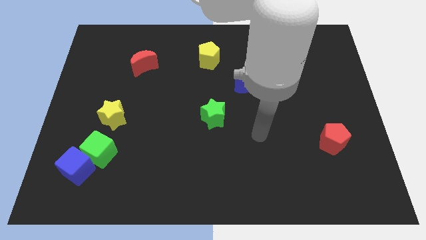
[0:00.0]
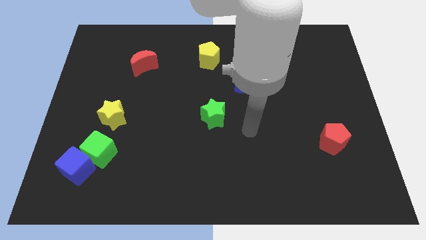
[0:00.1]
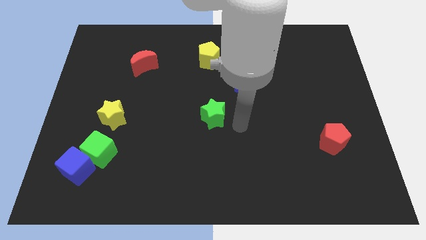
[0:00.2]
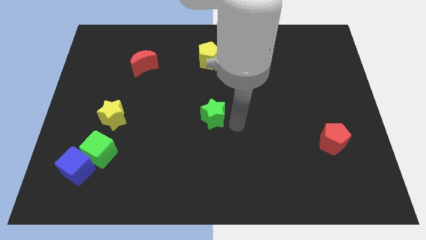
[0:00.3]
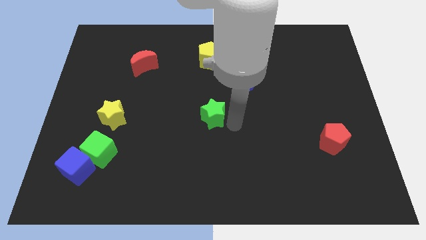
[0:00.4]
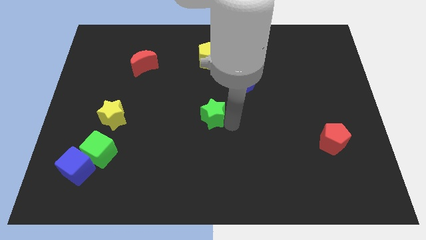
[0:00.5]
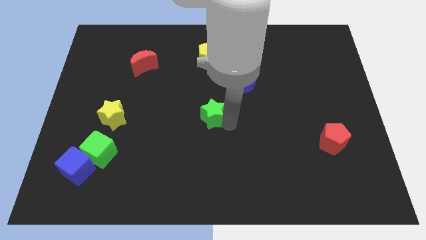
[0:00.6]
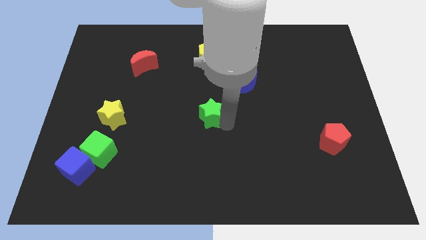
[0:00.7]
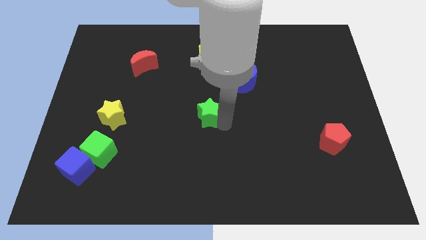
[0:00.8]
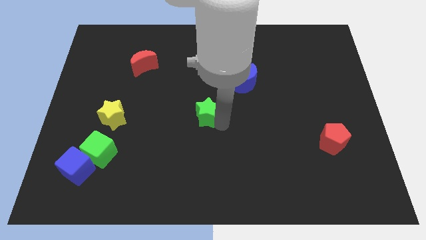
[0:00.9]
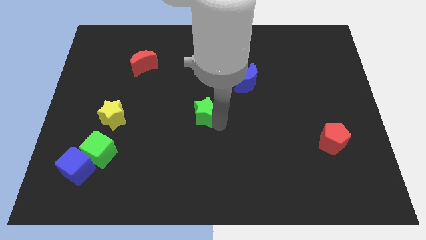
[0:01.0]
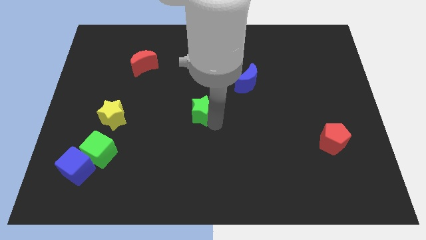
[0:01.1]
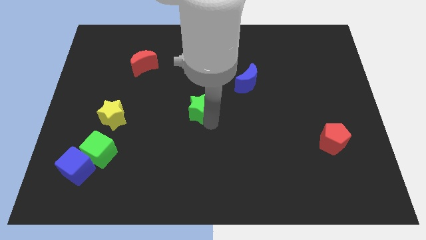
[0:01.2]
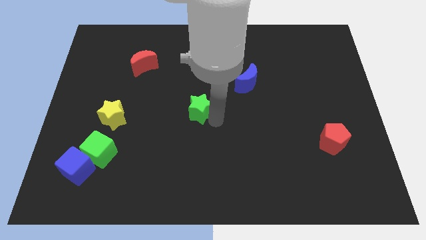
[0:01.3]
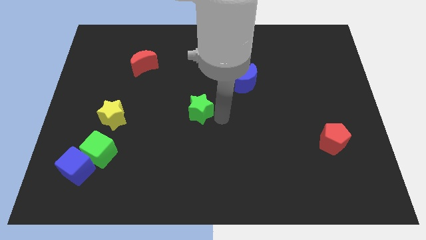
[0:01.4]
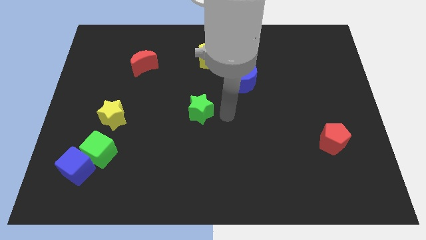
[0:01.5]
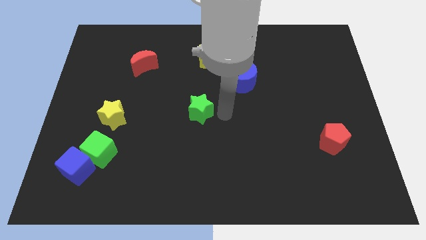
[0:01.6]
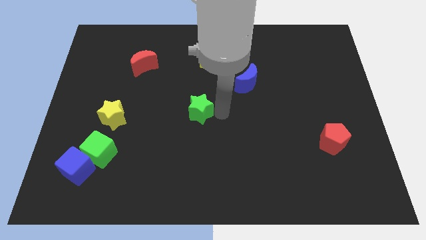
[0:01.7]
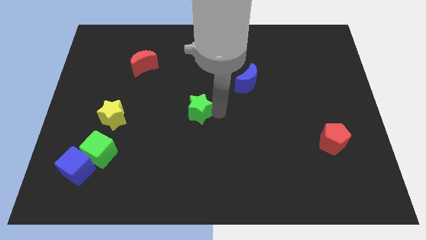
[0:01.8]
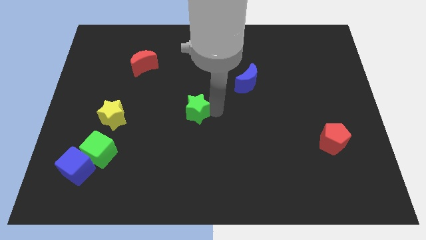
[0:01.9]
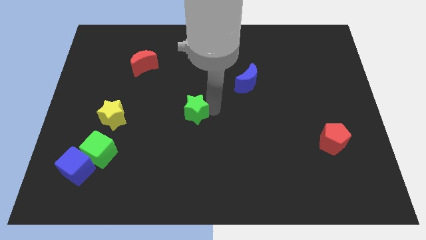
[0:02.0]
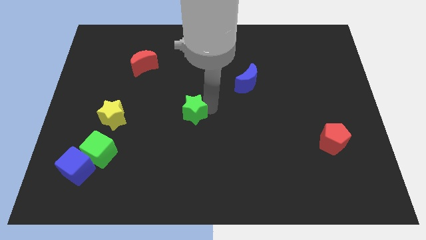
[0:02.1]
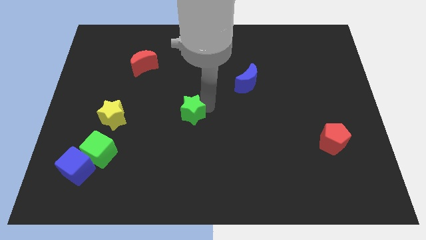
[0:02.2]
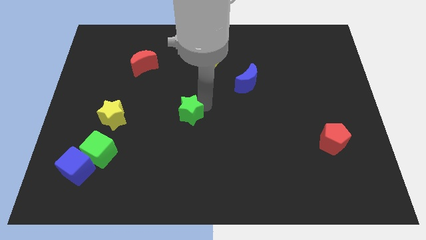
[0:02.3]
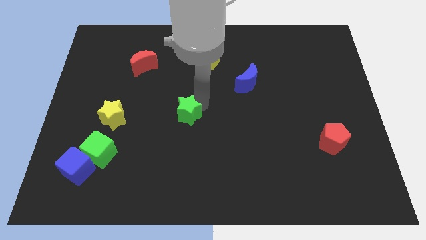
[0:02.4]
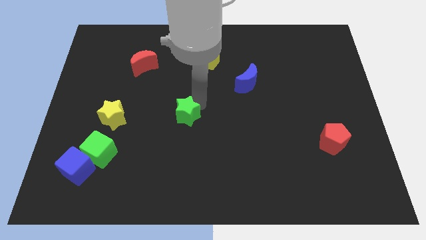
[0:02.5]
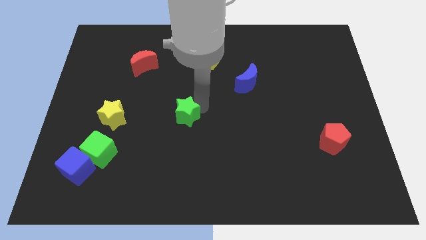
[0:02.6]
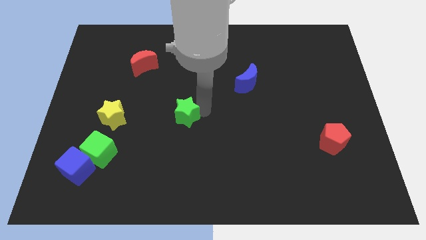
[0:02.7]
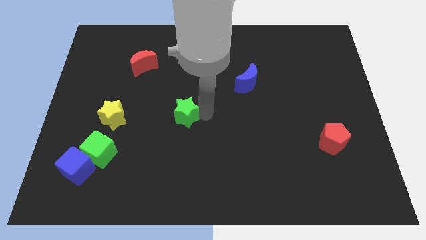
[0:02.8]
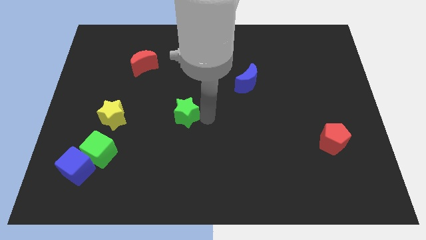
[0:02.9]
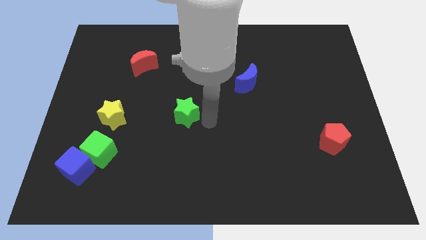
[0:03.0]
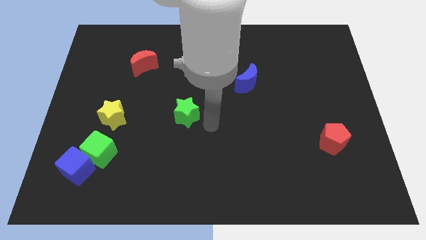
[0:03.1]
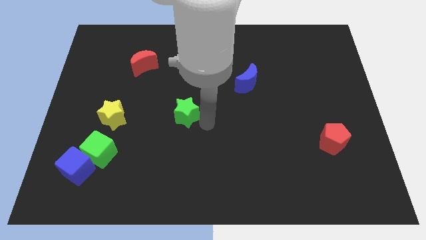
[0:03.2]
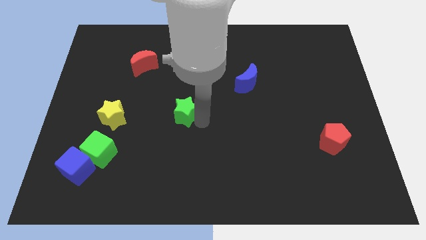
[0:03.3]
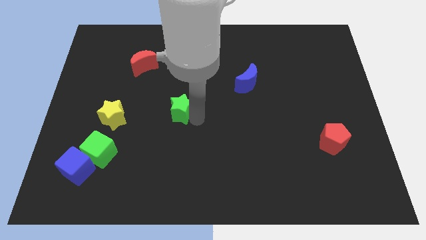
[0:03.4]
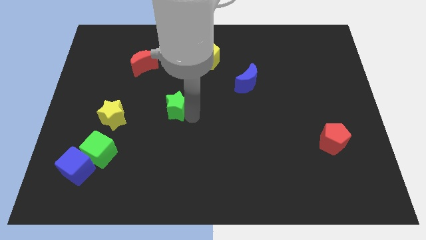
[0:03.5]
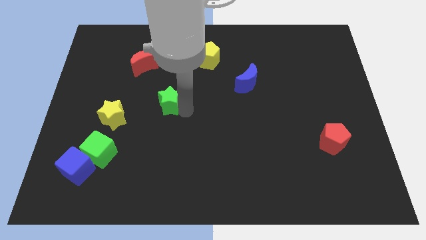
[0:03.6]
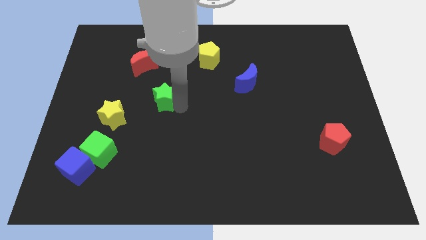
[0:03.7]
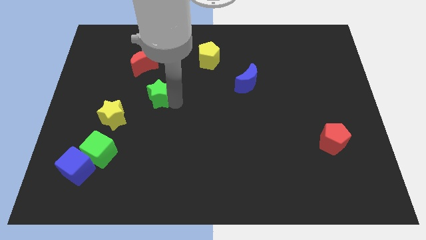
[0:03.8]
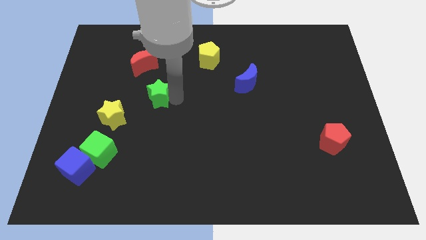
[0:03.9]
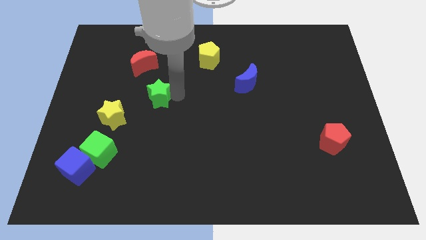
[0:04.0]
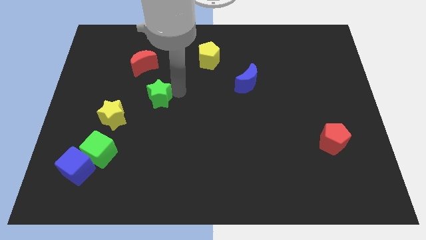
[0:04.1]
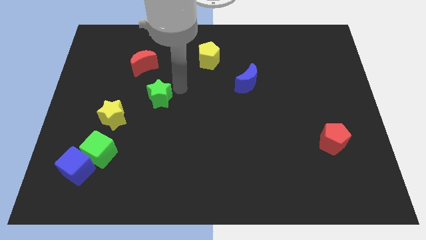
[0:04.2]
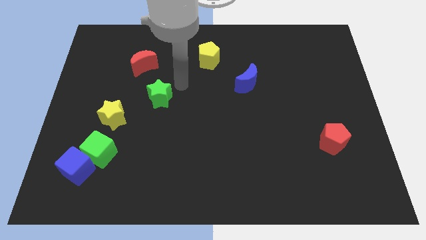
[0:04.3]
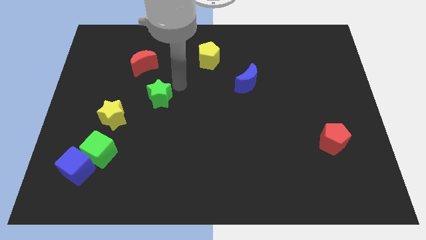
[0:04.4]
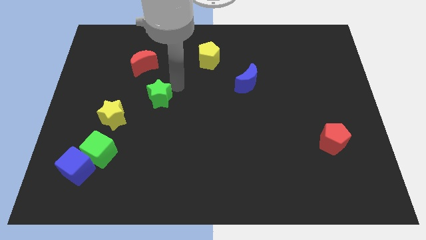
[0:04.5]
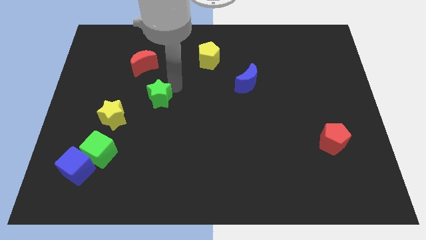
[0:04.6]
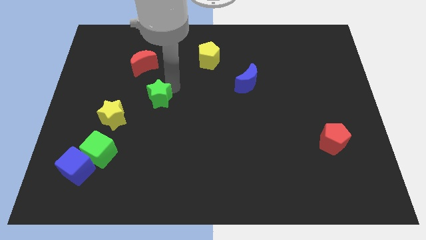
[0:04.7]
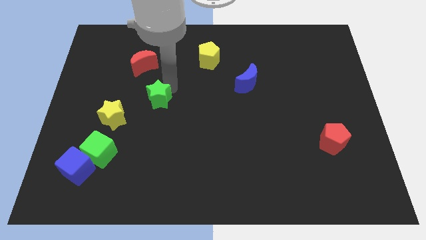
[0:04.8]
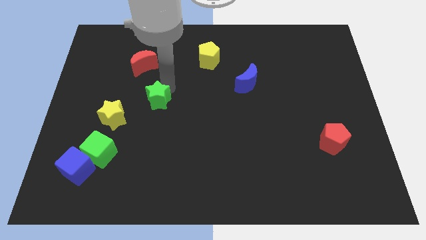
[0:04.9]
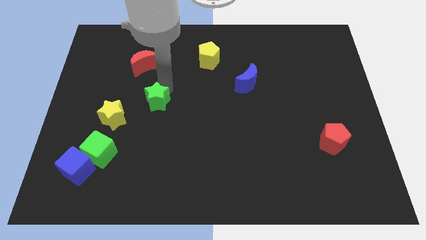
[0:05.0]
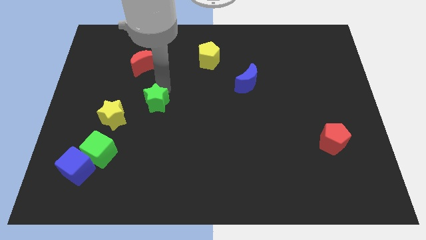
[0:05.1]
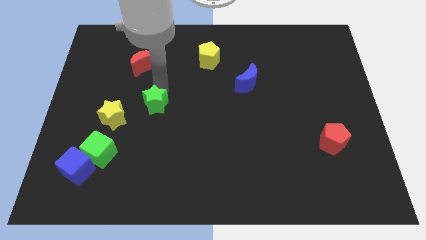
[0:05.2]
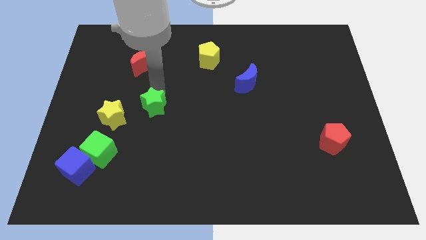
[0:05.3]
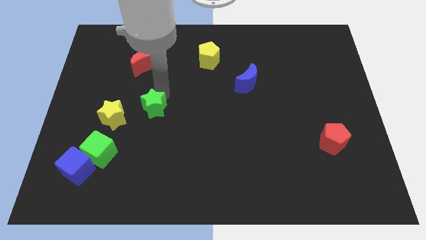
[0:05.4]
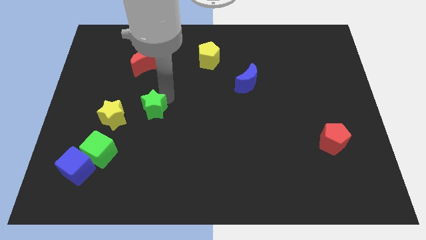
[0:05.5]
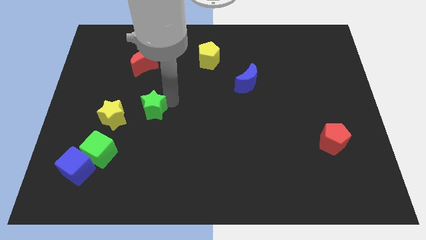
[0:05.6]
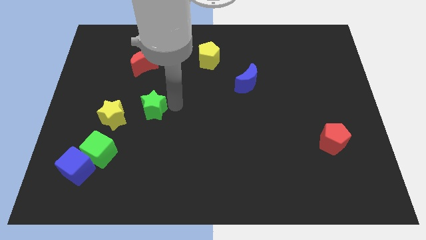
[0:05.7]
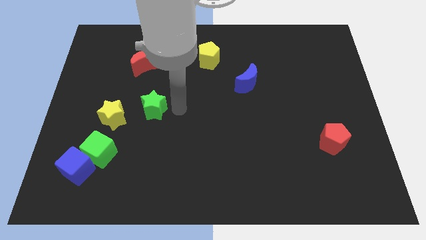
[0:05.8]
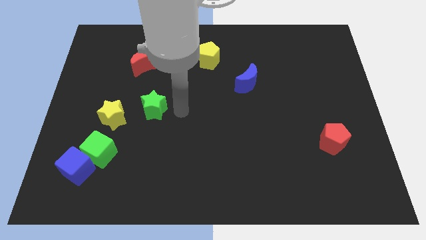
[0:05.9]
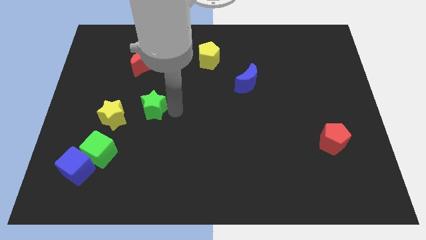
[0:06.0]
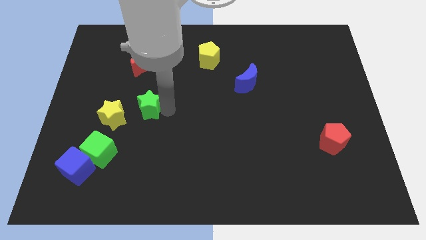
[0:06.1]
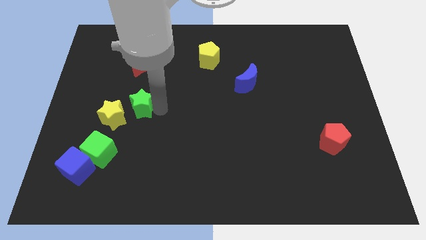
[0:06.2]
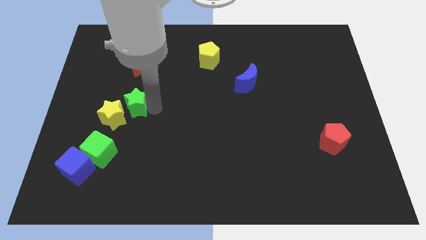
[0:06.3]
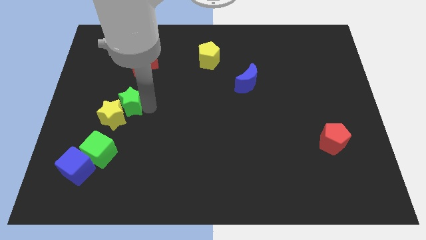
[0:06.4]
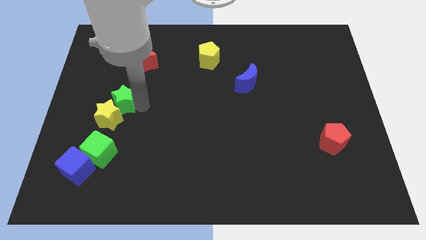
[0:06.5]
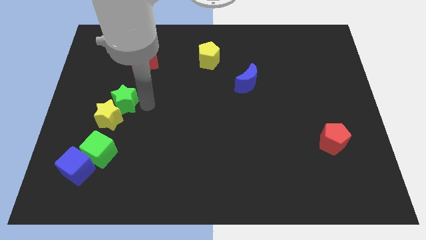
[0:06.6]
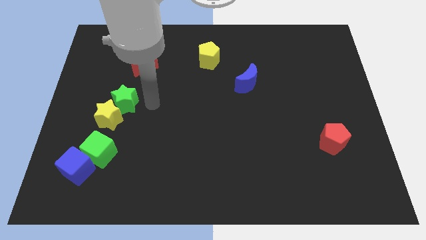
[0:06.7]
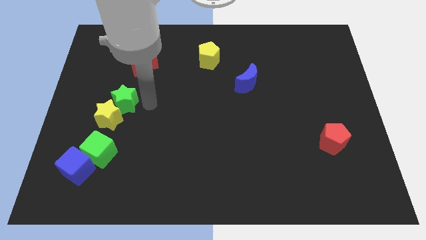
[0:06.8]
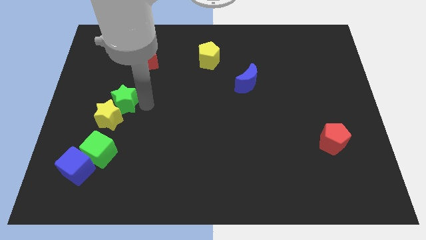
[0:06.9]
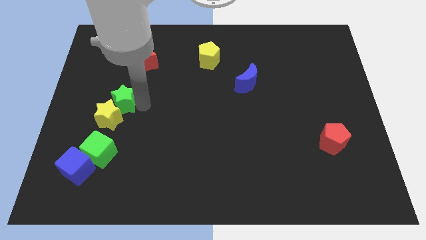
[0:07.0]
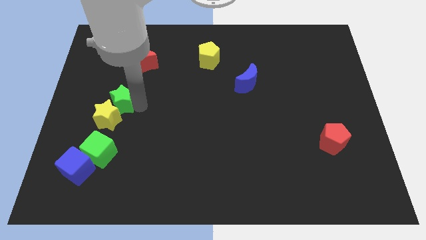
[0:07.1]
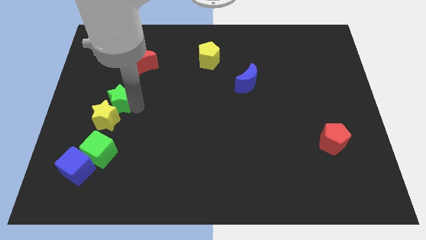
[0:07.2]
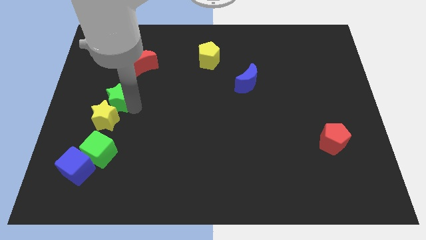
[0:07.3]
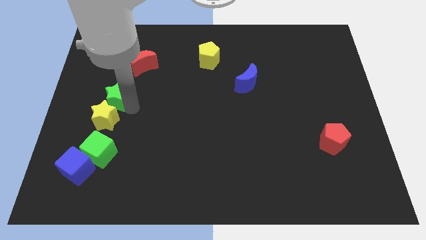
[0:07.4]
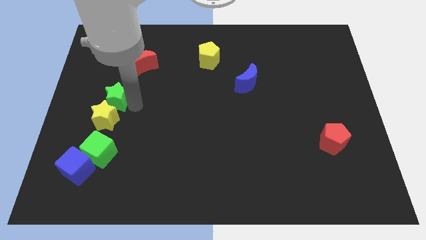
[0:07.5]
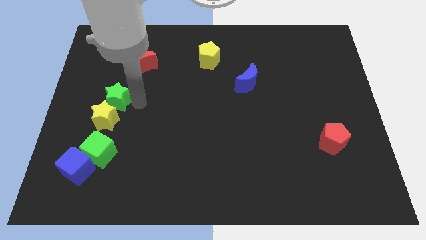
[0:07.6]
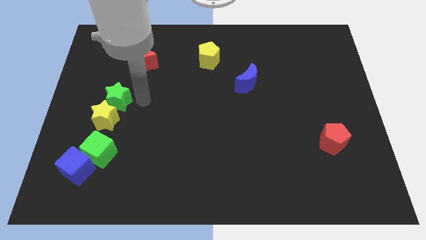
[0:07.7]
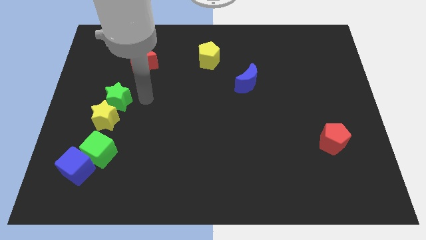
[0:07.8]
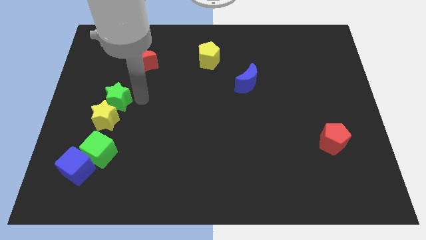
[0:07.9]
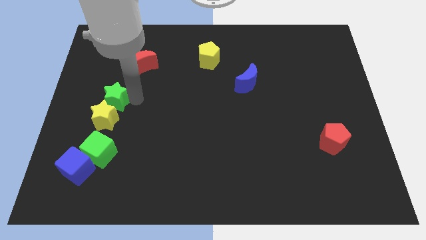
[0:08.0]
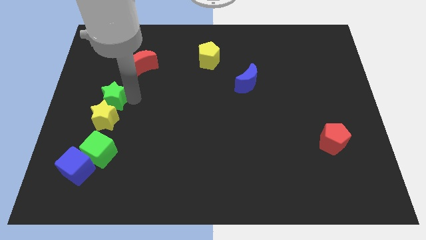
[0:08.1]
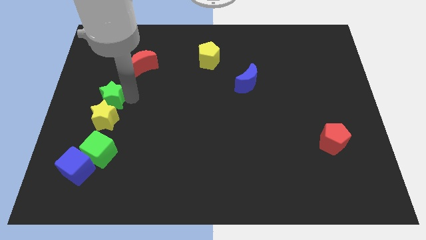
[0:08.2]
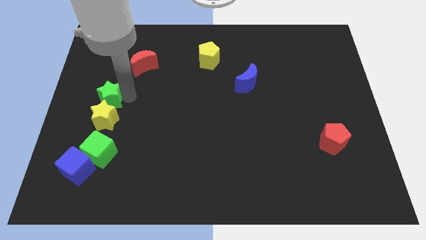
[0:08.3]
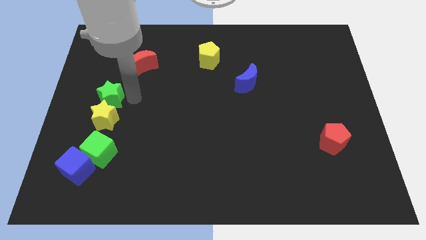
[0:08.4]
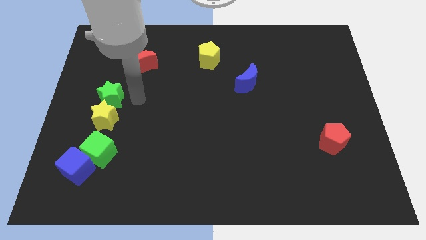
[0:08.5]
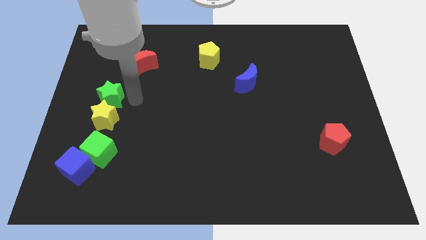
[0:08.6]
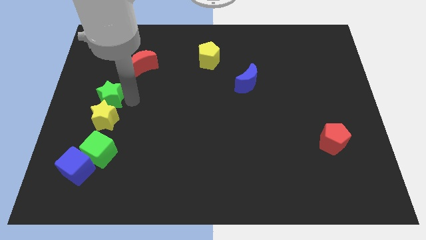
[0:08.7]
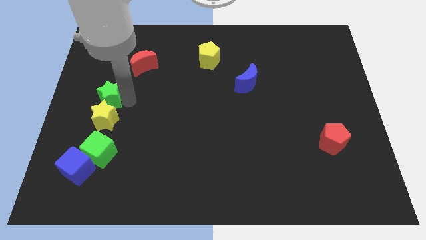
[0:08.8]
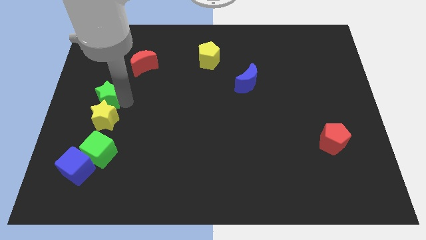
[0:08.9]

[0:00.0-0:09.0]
move the green star to the left side of the board
